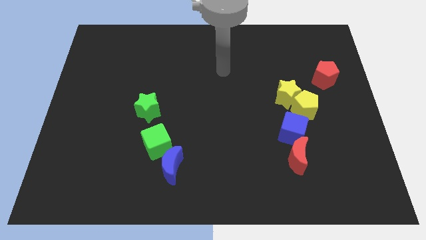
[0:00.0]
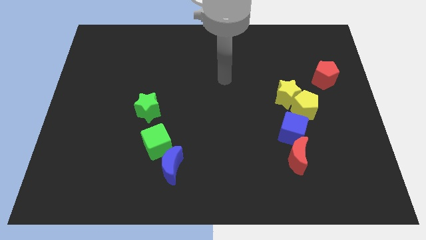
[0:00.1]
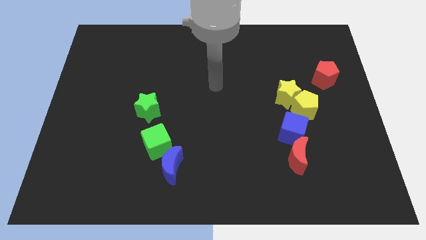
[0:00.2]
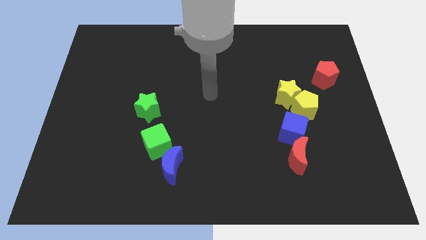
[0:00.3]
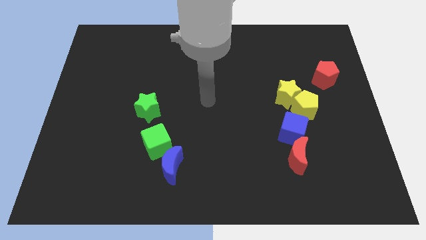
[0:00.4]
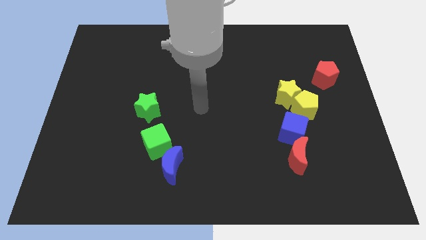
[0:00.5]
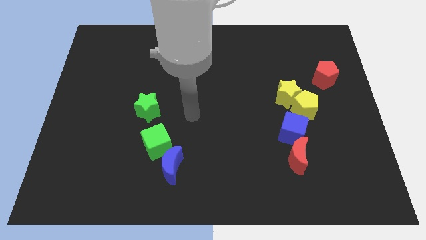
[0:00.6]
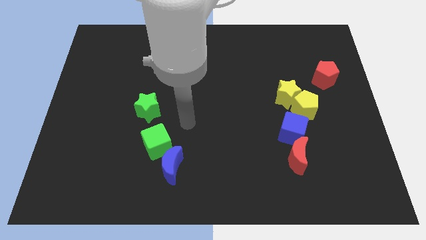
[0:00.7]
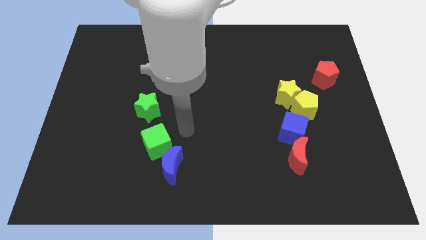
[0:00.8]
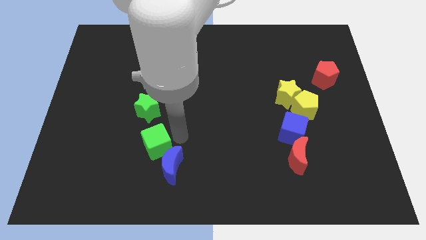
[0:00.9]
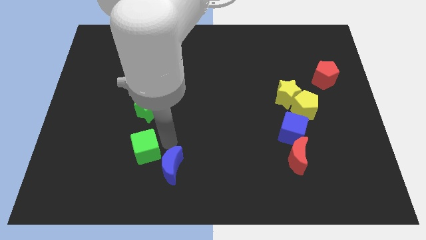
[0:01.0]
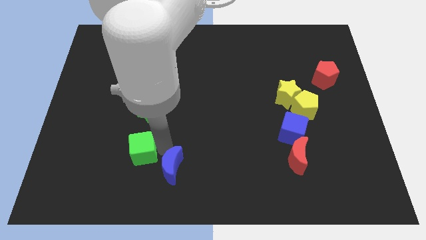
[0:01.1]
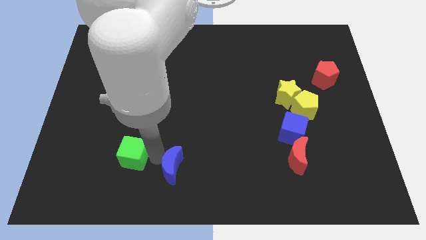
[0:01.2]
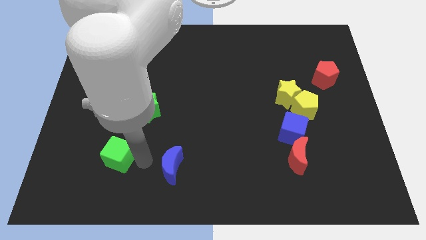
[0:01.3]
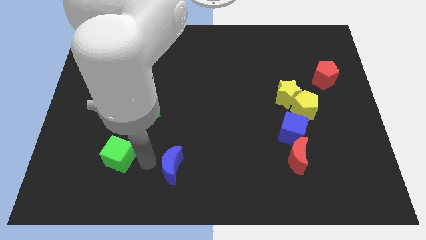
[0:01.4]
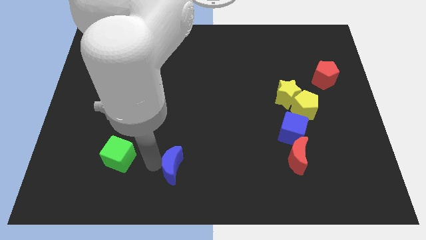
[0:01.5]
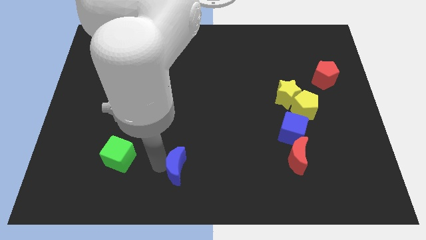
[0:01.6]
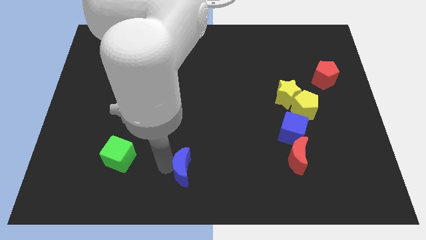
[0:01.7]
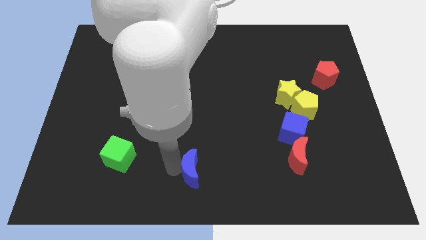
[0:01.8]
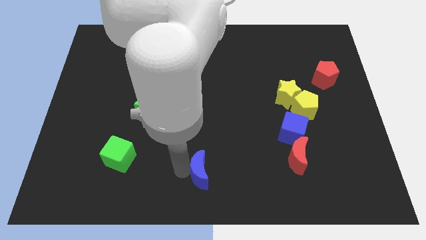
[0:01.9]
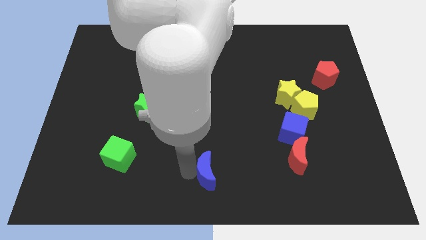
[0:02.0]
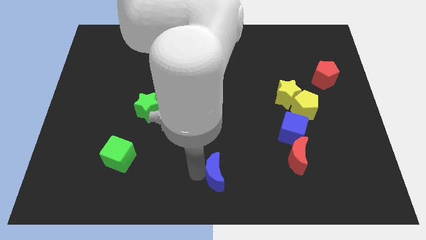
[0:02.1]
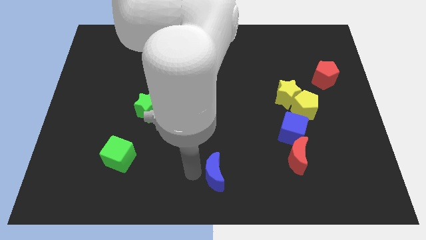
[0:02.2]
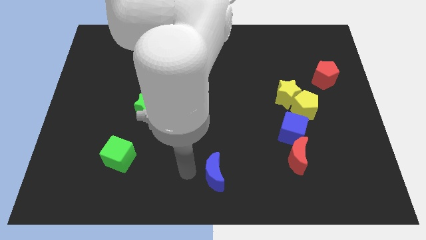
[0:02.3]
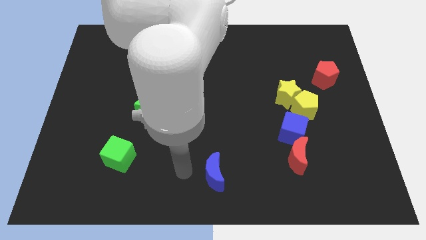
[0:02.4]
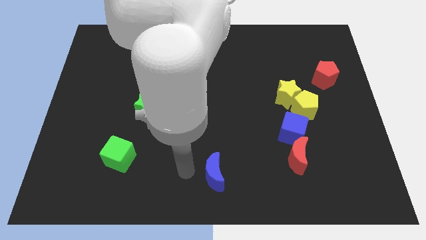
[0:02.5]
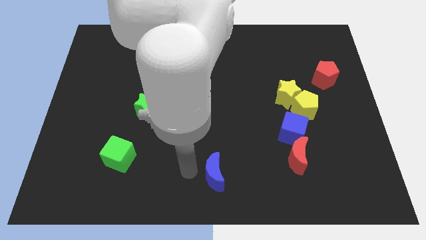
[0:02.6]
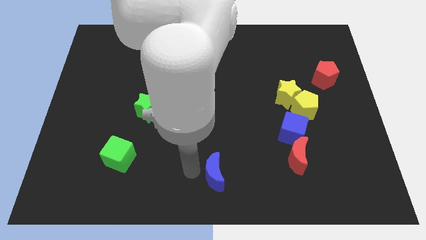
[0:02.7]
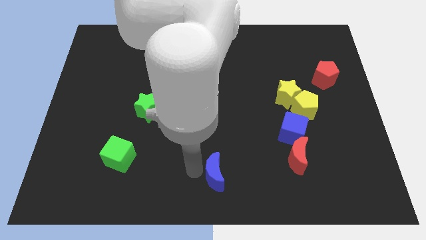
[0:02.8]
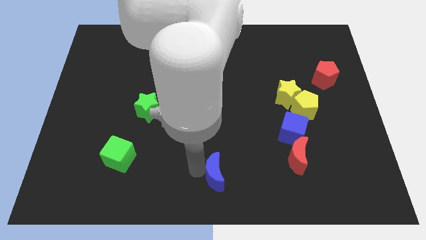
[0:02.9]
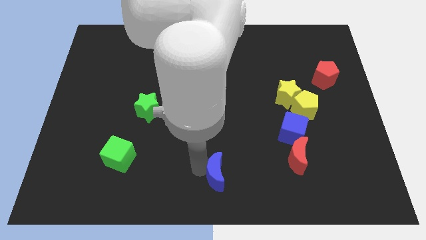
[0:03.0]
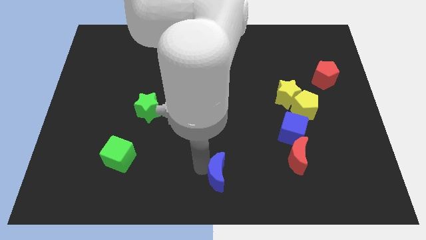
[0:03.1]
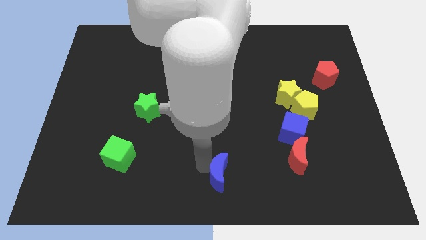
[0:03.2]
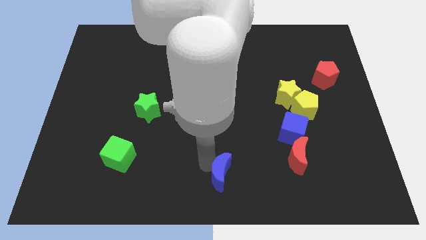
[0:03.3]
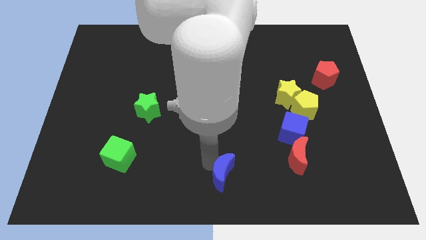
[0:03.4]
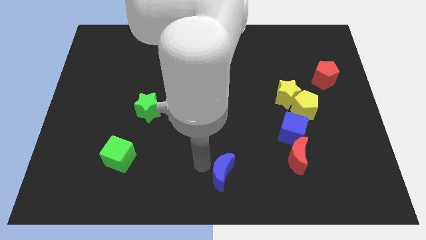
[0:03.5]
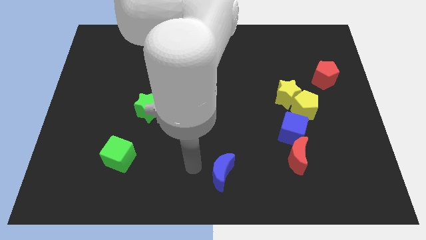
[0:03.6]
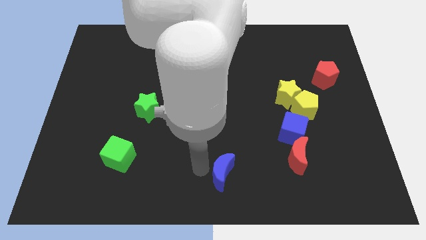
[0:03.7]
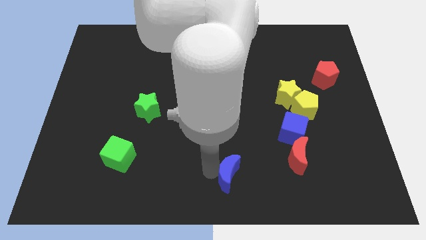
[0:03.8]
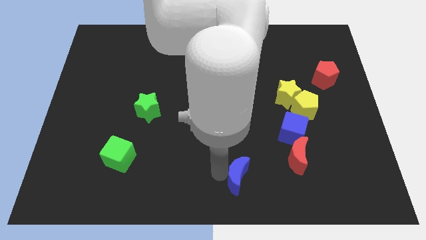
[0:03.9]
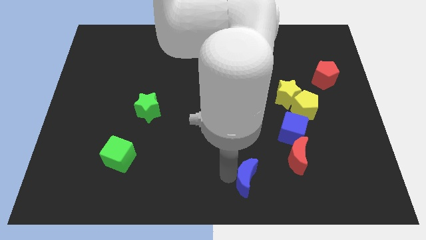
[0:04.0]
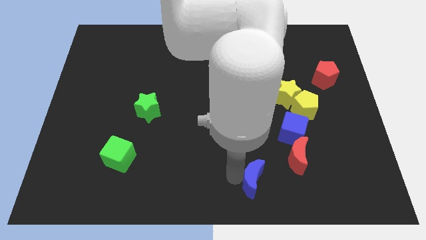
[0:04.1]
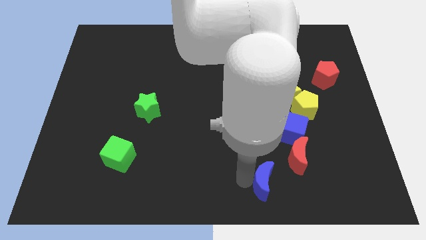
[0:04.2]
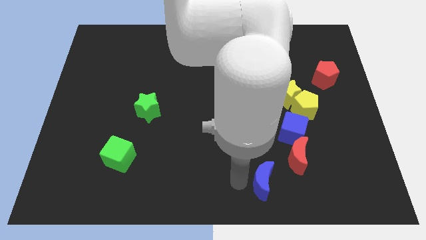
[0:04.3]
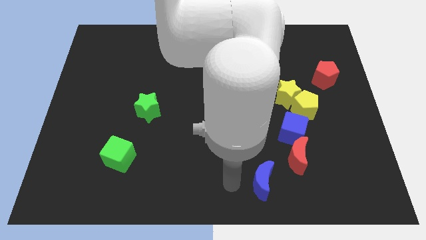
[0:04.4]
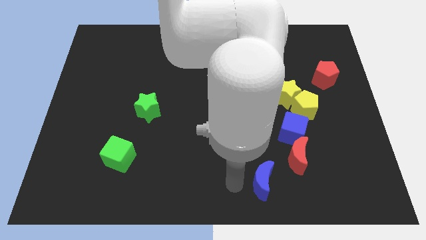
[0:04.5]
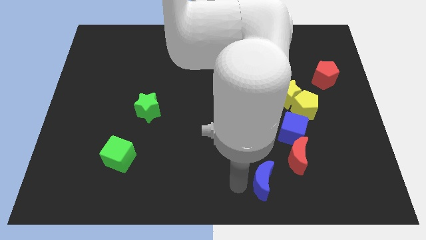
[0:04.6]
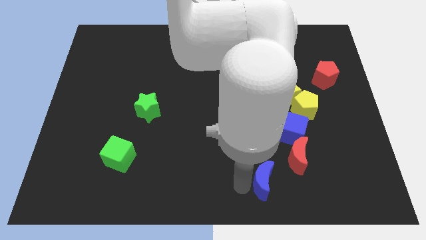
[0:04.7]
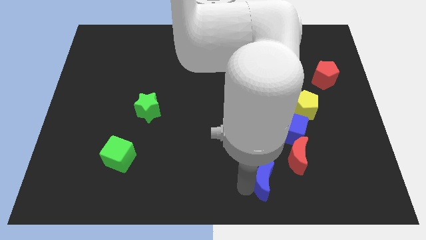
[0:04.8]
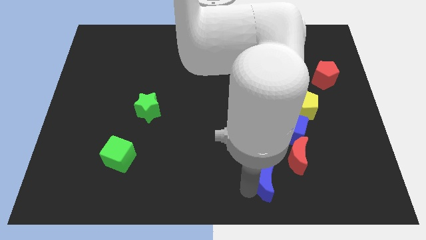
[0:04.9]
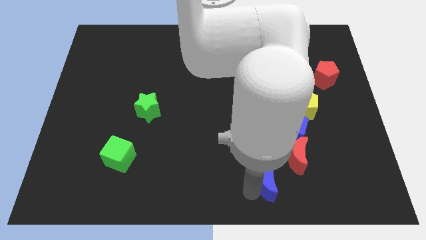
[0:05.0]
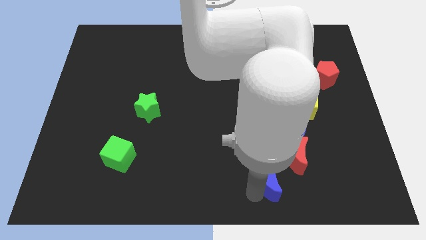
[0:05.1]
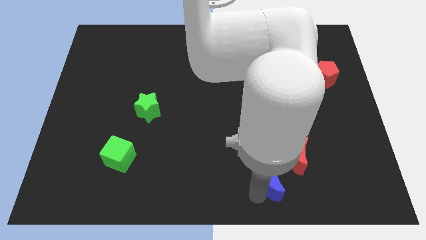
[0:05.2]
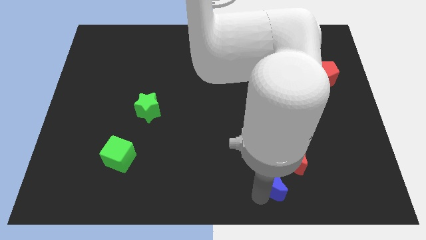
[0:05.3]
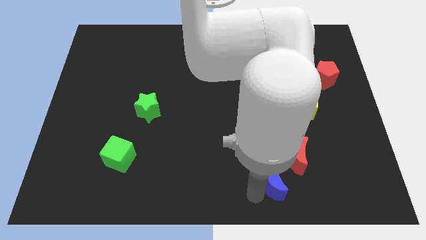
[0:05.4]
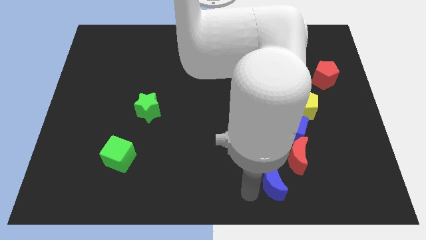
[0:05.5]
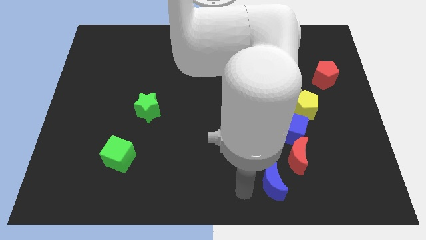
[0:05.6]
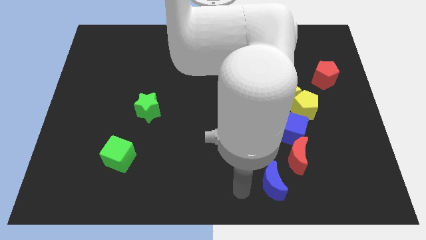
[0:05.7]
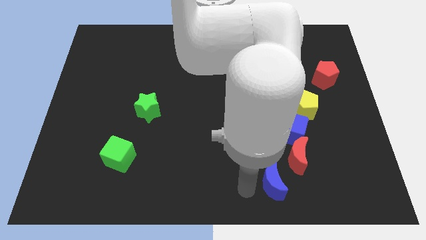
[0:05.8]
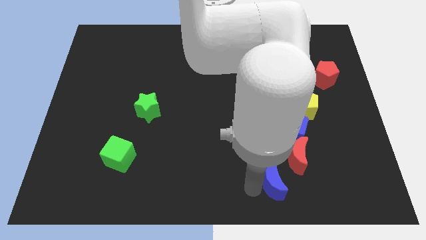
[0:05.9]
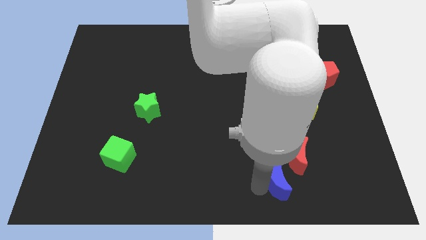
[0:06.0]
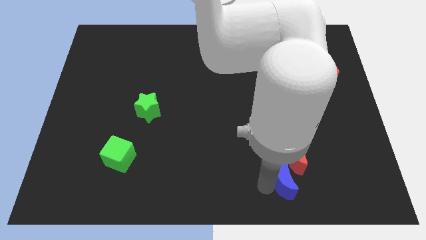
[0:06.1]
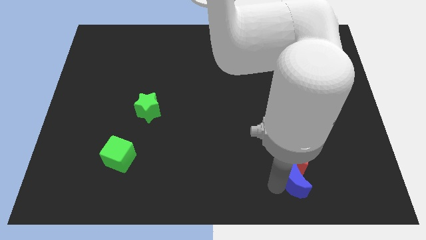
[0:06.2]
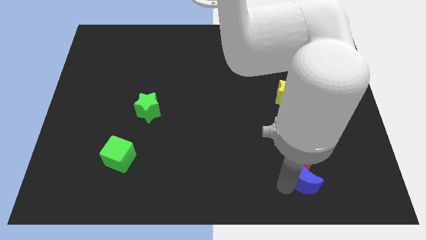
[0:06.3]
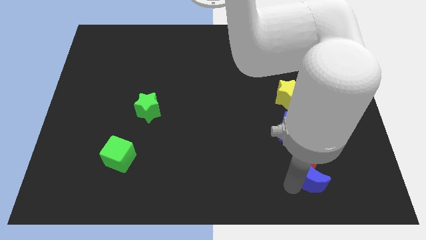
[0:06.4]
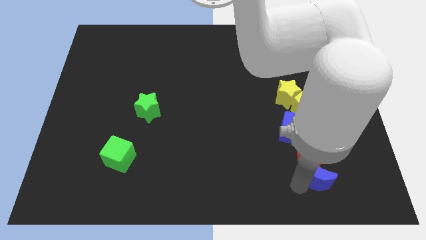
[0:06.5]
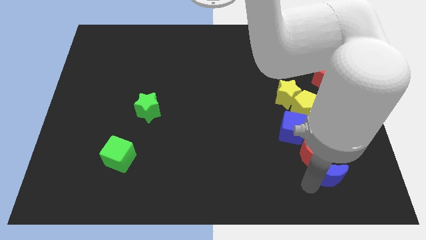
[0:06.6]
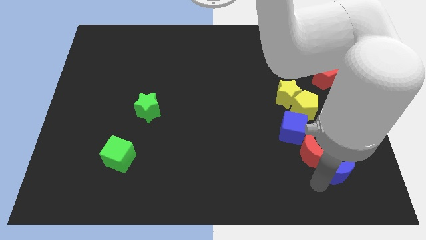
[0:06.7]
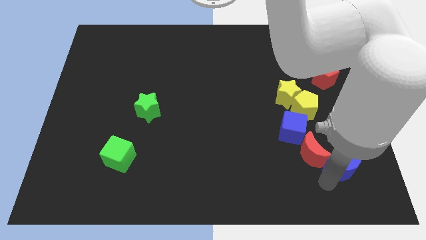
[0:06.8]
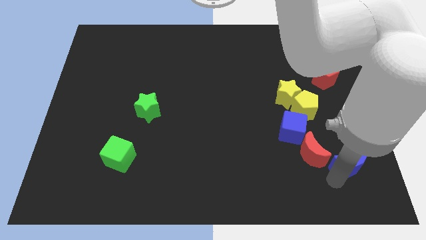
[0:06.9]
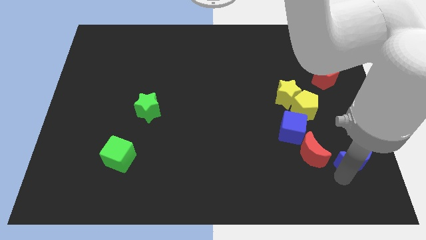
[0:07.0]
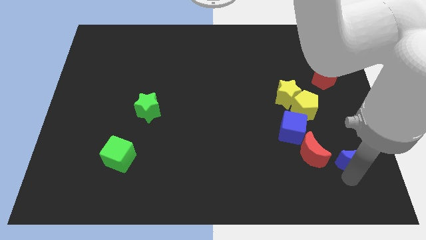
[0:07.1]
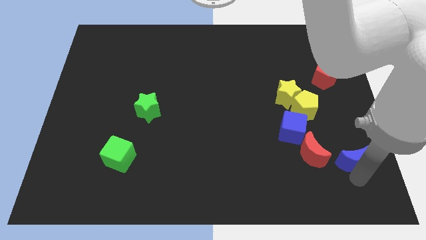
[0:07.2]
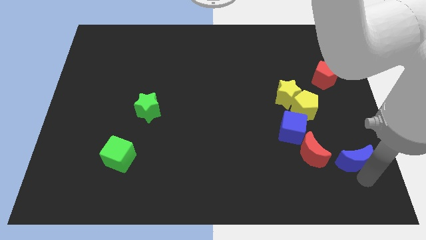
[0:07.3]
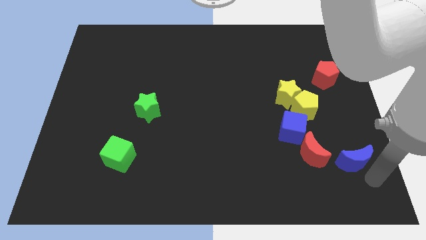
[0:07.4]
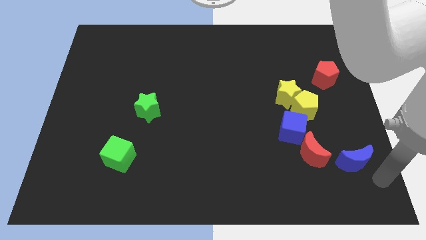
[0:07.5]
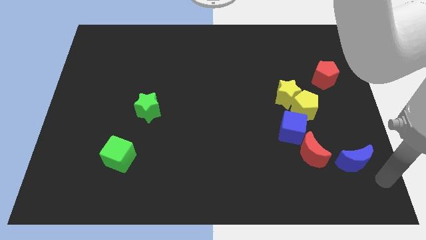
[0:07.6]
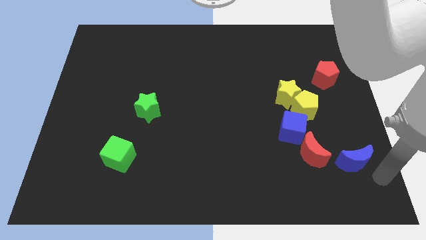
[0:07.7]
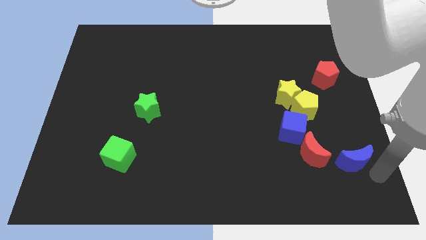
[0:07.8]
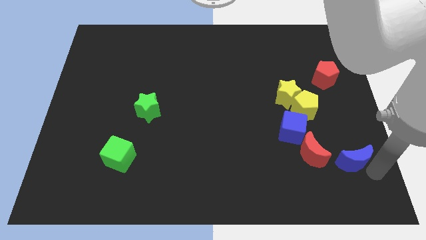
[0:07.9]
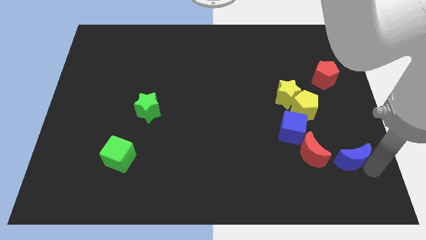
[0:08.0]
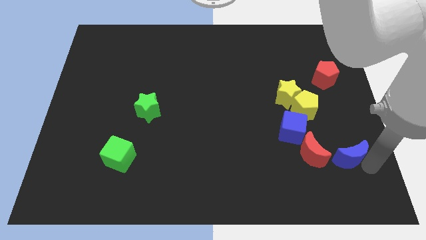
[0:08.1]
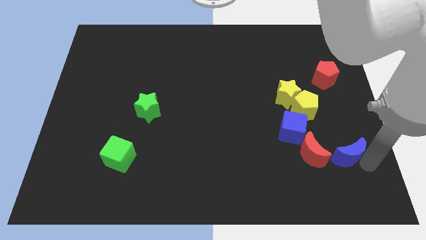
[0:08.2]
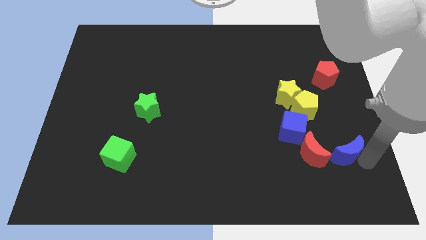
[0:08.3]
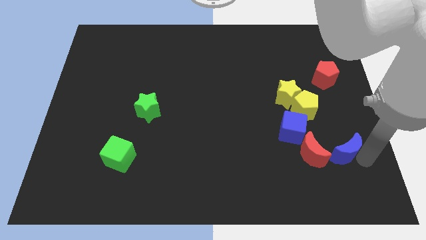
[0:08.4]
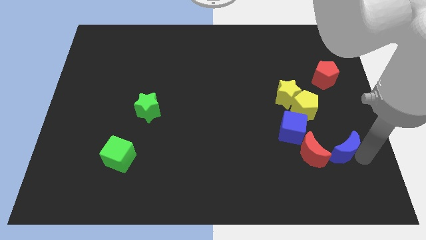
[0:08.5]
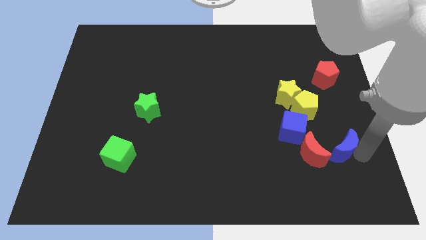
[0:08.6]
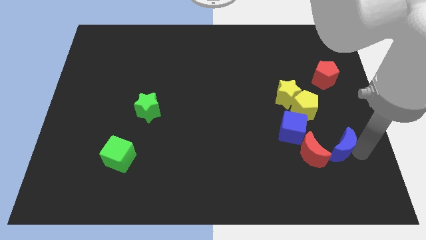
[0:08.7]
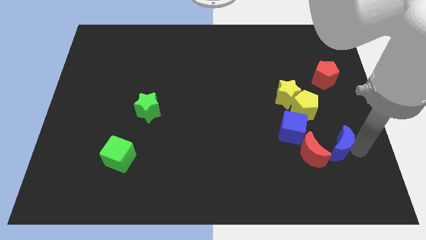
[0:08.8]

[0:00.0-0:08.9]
put the blue moon diagonally down and to the right of the yellow pentagon
